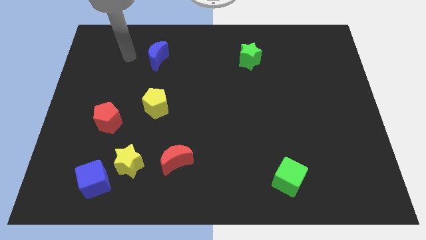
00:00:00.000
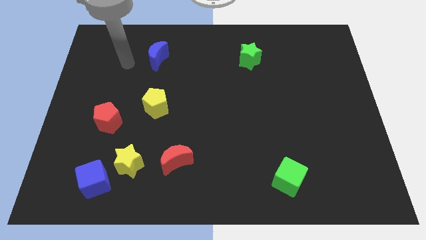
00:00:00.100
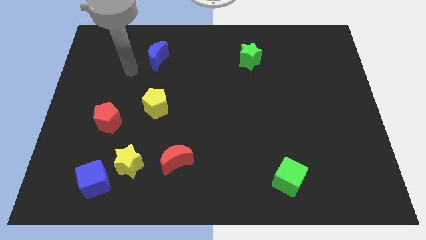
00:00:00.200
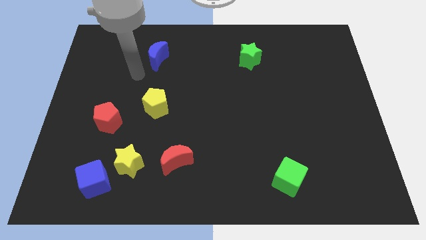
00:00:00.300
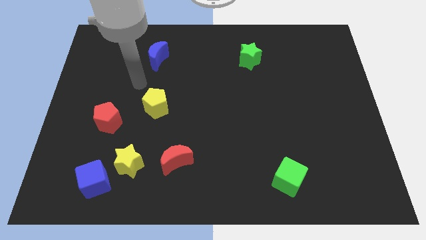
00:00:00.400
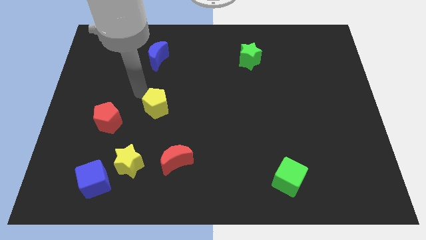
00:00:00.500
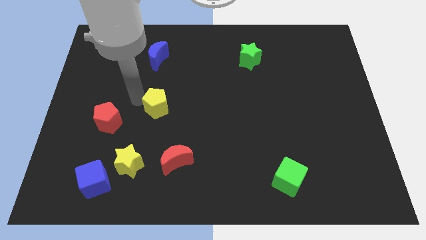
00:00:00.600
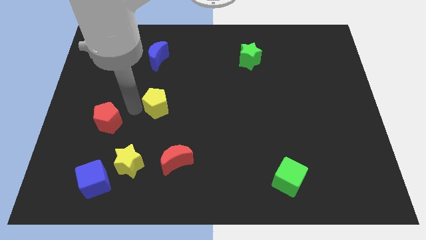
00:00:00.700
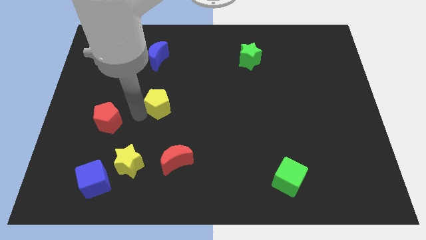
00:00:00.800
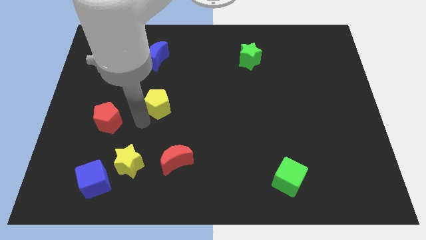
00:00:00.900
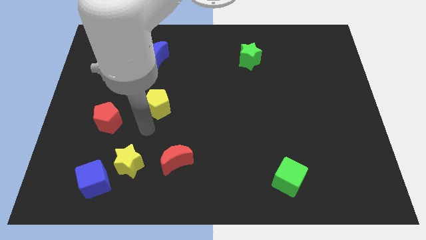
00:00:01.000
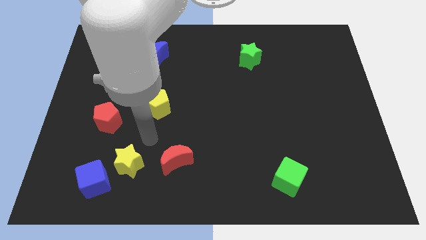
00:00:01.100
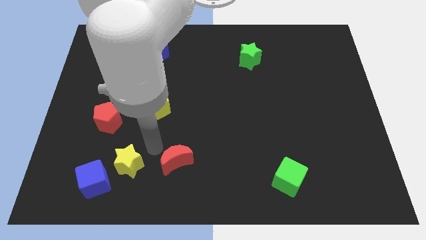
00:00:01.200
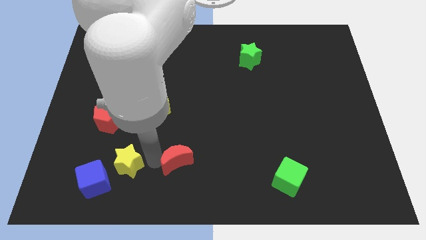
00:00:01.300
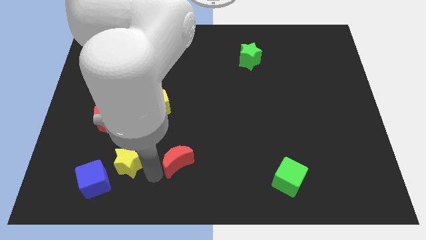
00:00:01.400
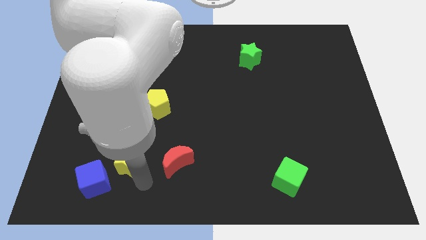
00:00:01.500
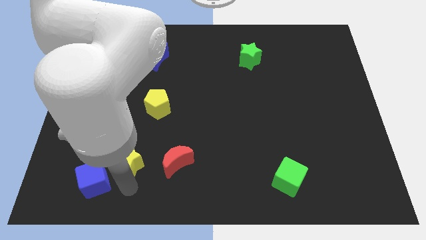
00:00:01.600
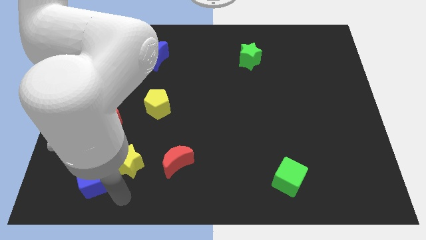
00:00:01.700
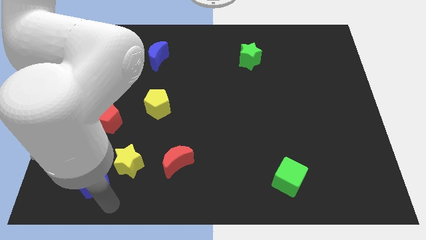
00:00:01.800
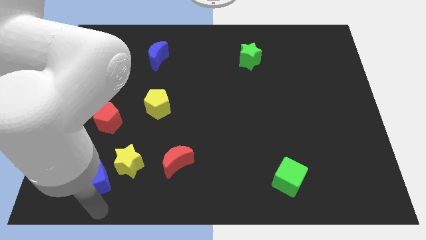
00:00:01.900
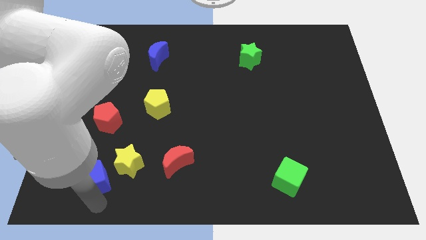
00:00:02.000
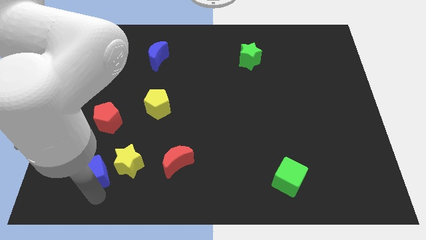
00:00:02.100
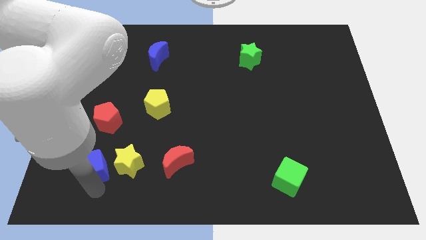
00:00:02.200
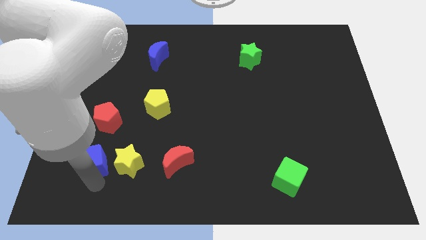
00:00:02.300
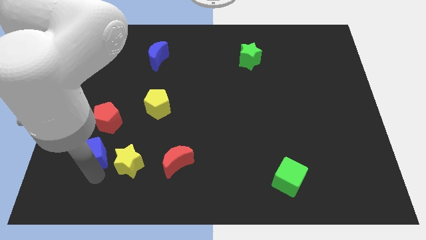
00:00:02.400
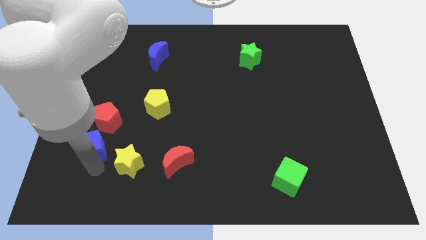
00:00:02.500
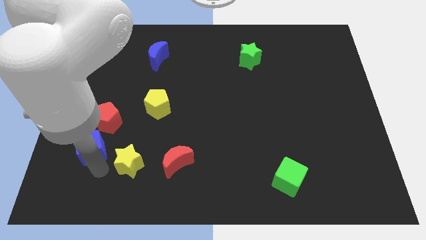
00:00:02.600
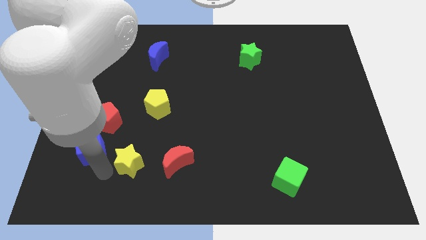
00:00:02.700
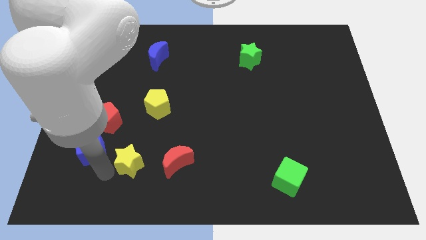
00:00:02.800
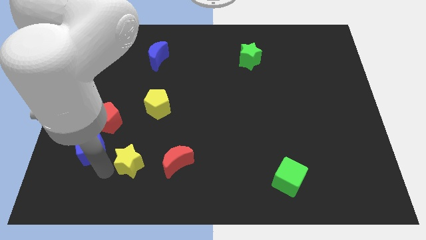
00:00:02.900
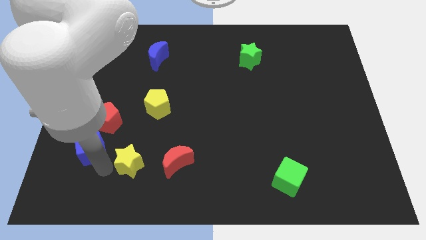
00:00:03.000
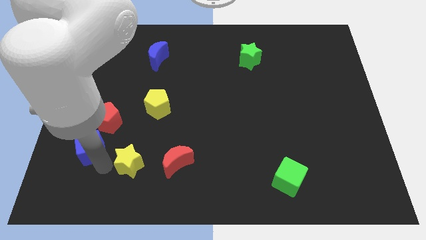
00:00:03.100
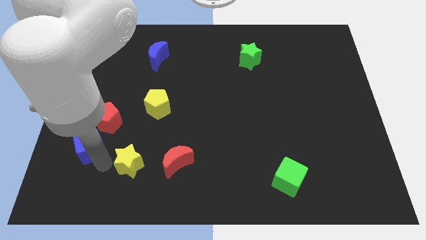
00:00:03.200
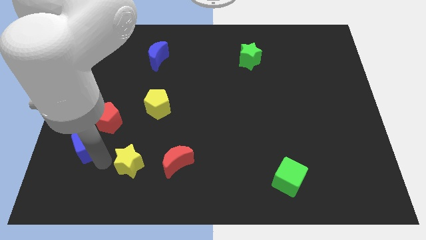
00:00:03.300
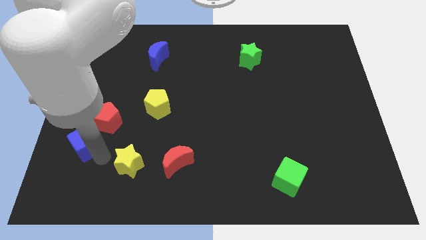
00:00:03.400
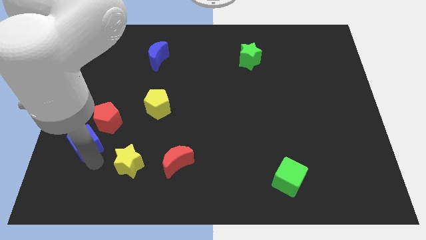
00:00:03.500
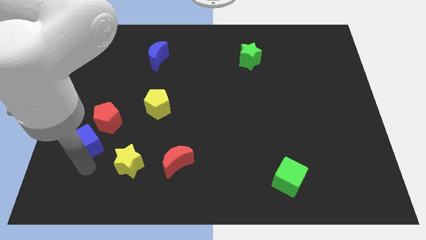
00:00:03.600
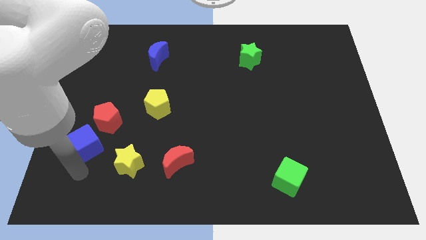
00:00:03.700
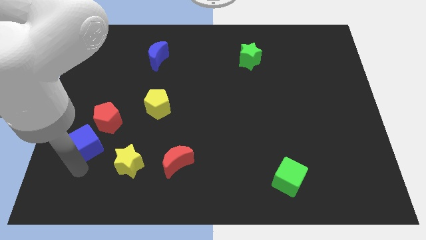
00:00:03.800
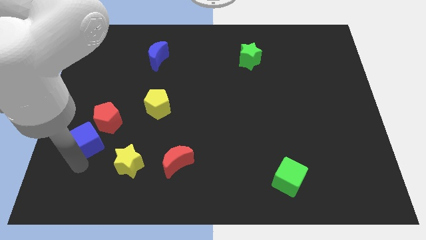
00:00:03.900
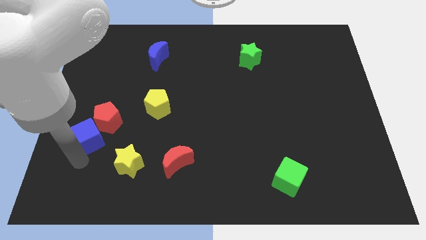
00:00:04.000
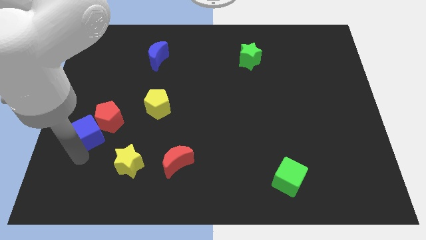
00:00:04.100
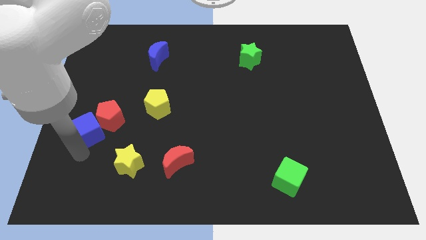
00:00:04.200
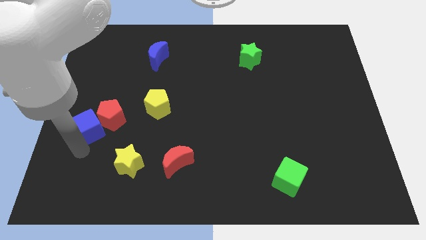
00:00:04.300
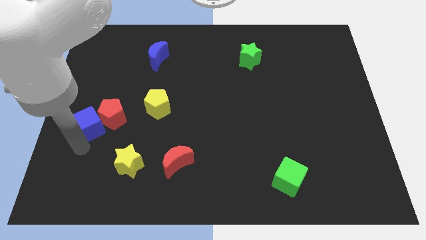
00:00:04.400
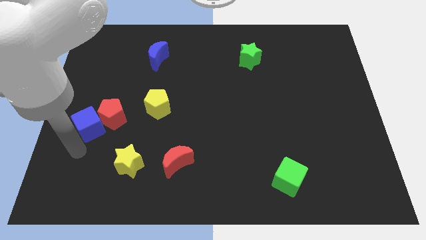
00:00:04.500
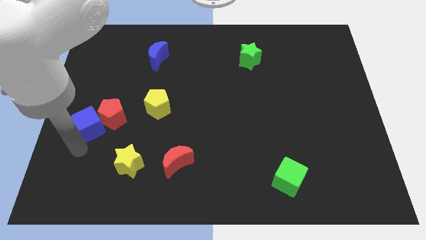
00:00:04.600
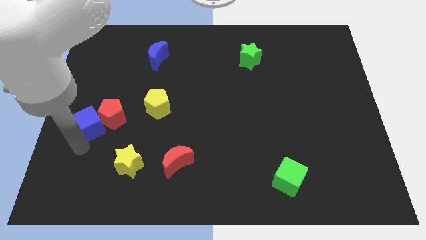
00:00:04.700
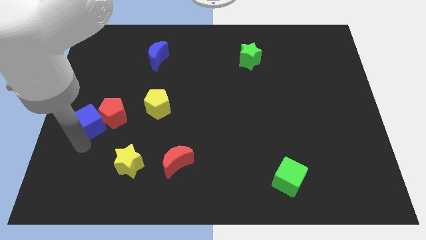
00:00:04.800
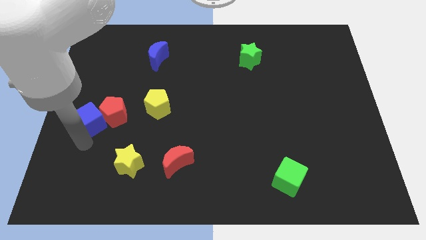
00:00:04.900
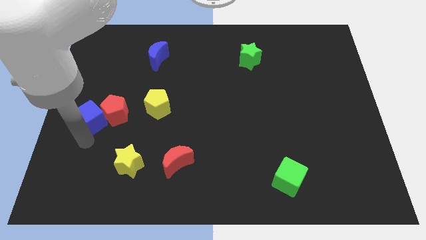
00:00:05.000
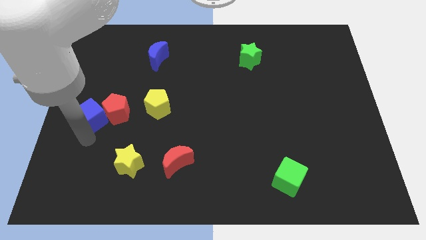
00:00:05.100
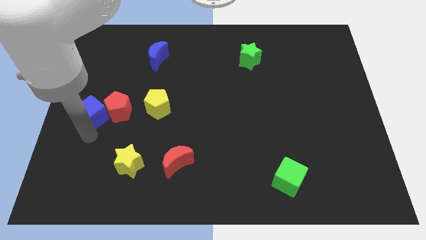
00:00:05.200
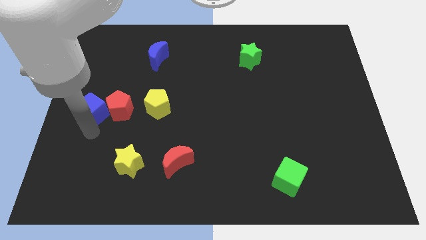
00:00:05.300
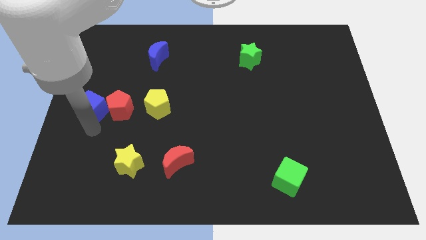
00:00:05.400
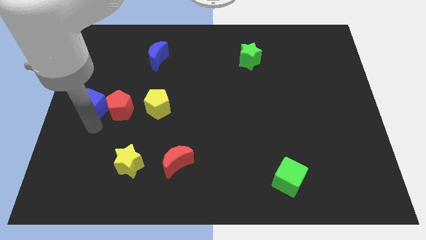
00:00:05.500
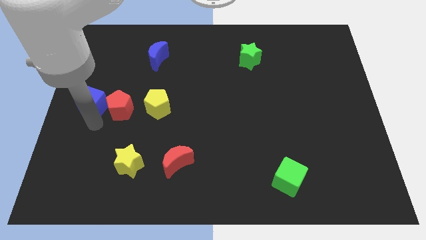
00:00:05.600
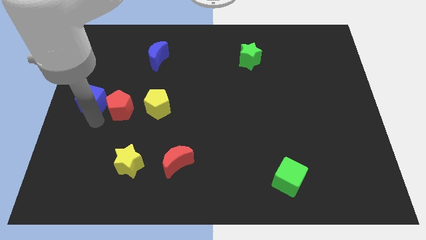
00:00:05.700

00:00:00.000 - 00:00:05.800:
push the blue cube upwards

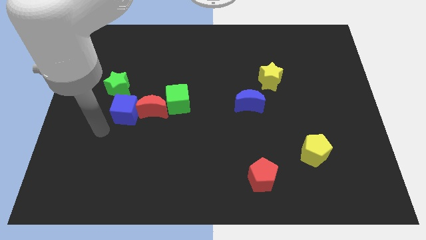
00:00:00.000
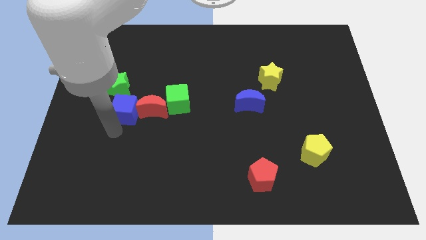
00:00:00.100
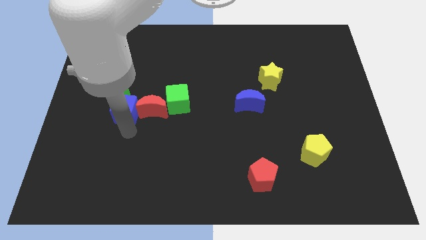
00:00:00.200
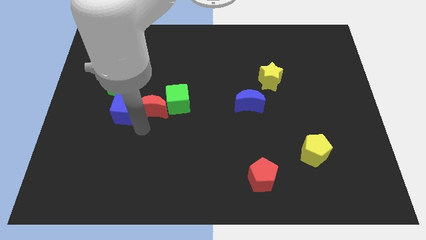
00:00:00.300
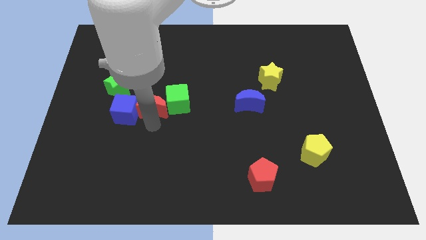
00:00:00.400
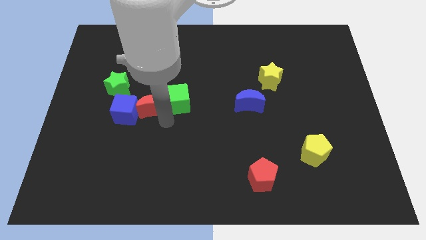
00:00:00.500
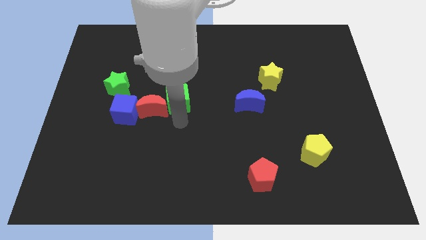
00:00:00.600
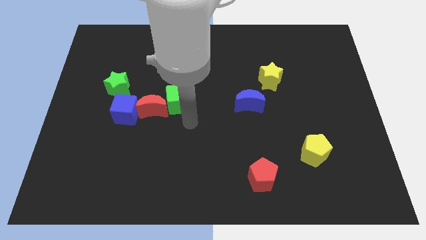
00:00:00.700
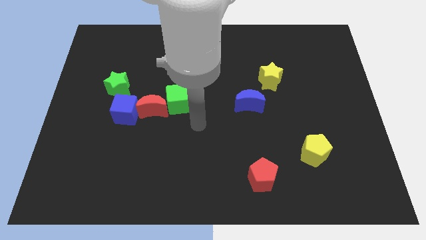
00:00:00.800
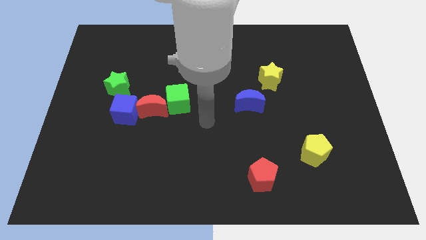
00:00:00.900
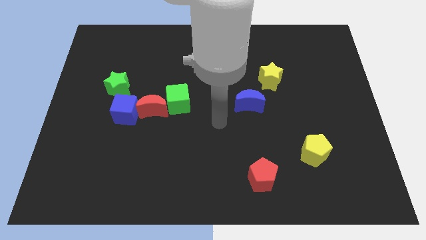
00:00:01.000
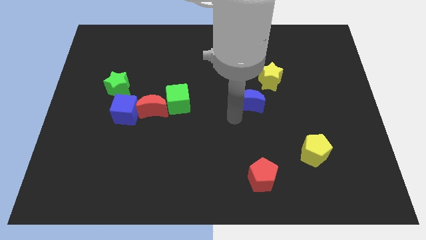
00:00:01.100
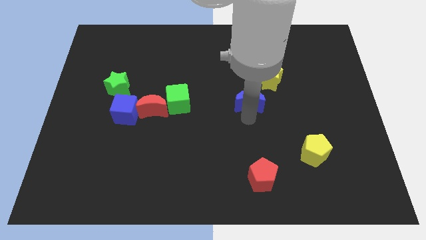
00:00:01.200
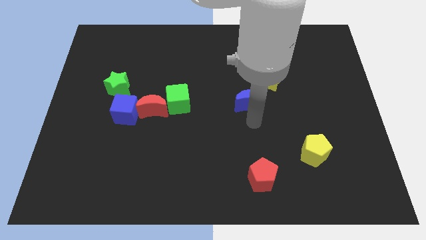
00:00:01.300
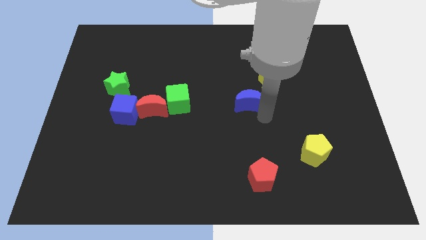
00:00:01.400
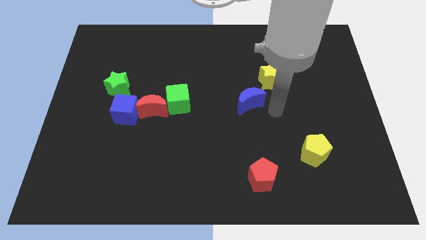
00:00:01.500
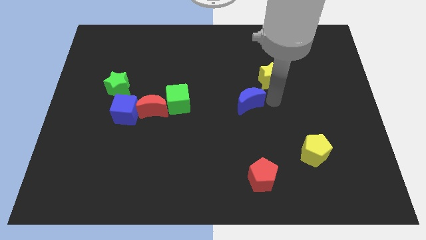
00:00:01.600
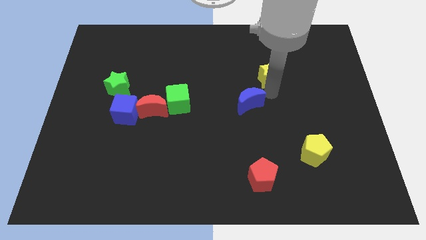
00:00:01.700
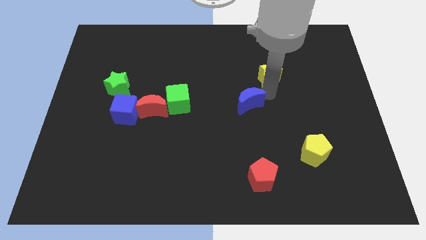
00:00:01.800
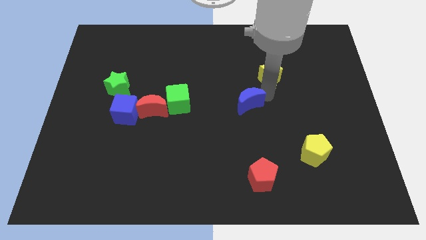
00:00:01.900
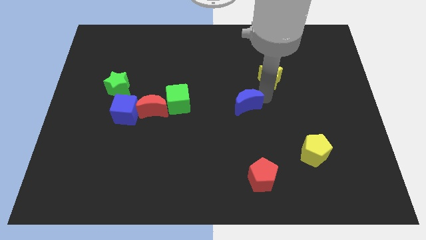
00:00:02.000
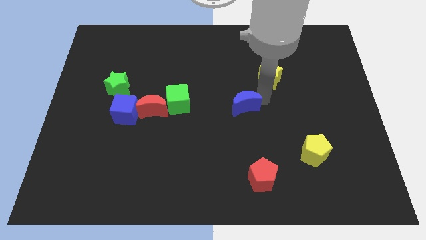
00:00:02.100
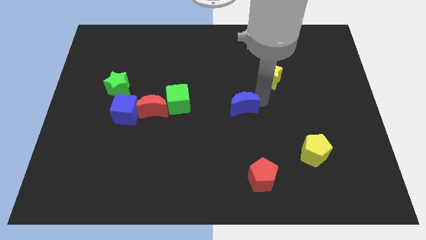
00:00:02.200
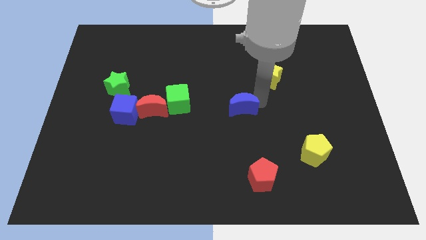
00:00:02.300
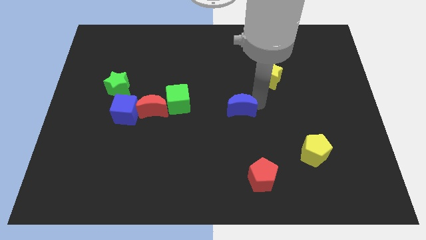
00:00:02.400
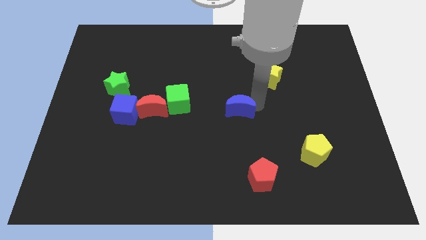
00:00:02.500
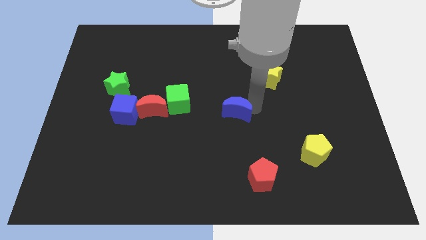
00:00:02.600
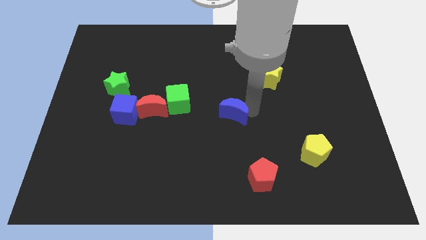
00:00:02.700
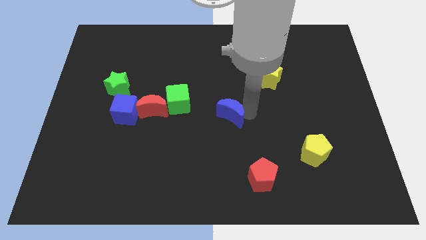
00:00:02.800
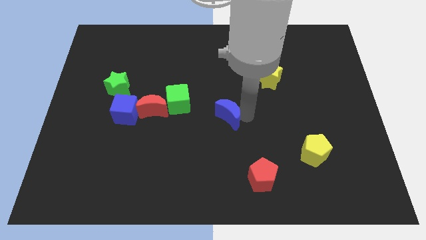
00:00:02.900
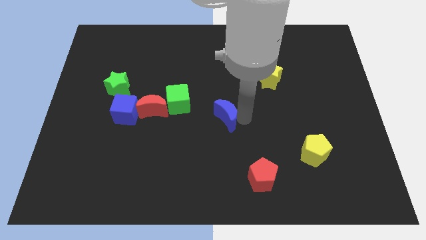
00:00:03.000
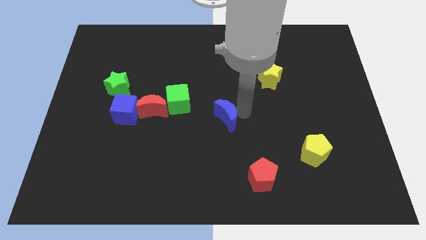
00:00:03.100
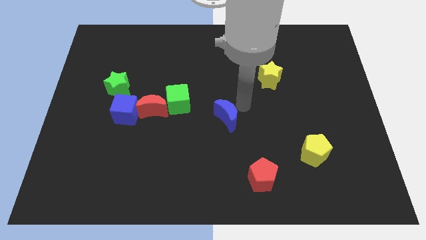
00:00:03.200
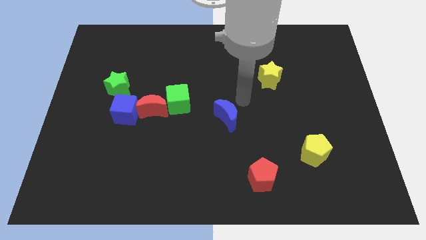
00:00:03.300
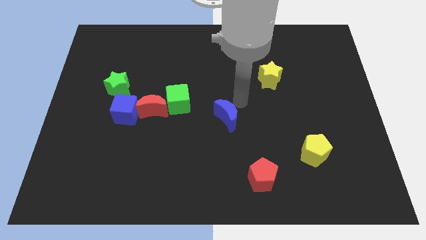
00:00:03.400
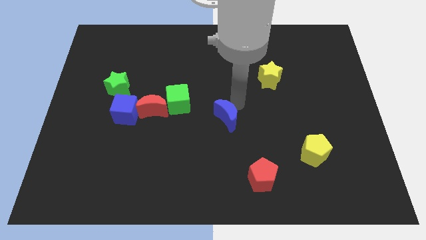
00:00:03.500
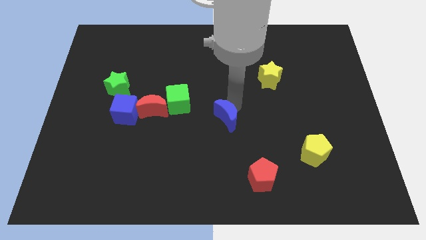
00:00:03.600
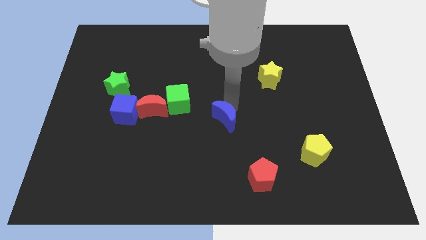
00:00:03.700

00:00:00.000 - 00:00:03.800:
slightly push the blue moon downwards and to the left
